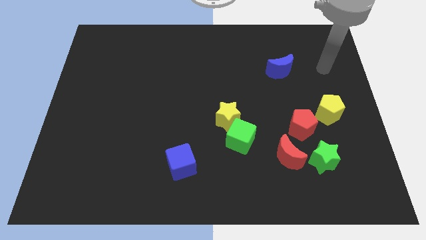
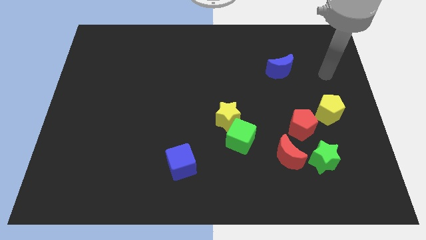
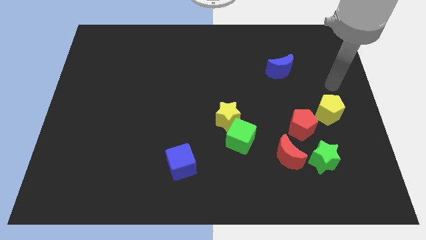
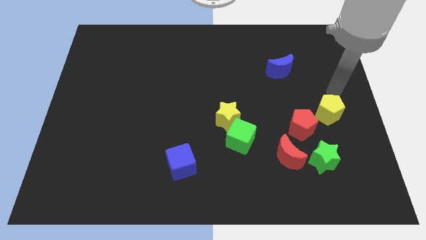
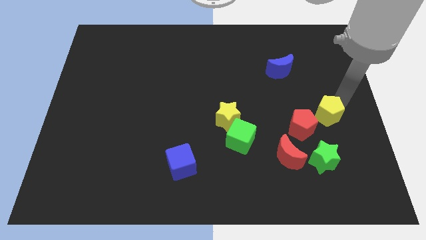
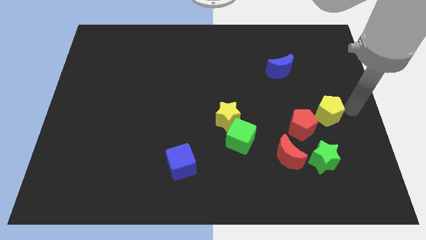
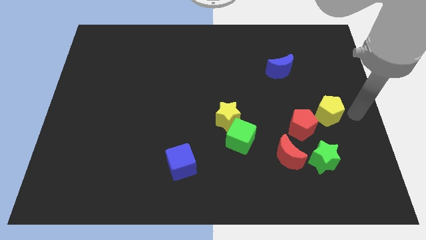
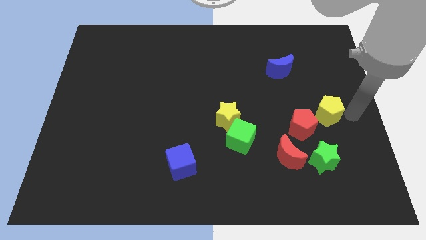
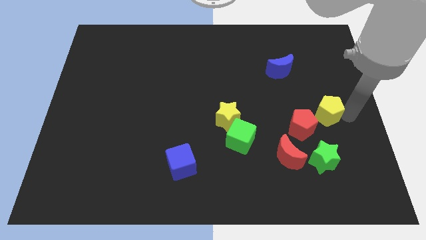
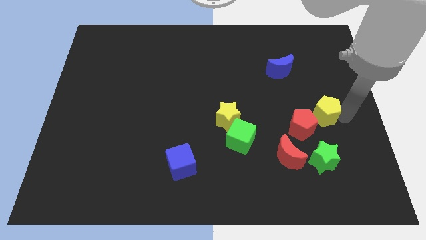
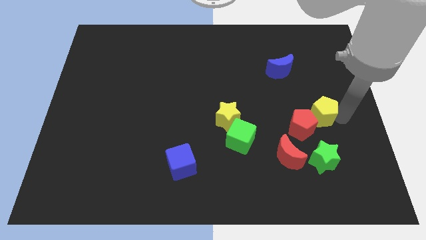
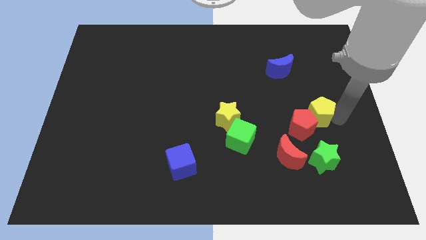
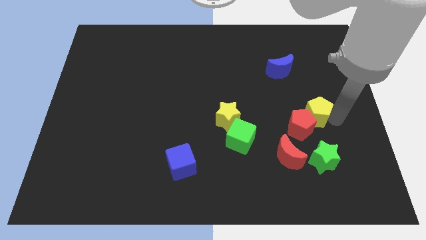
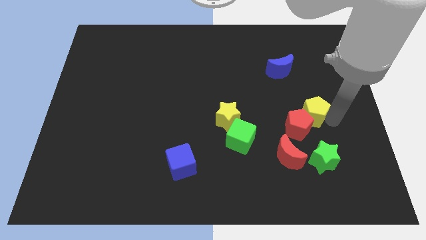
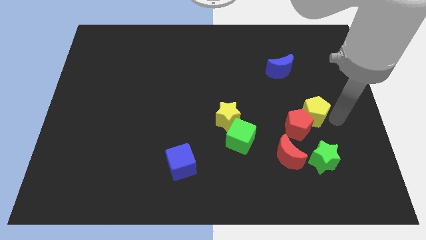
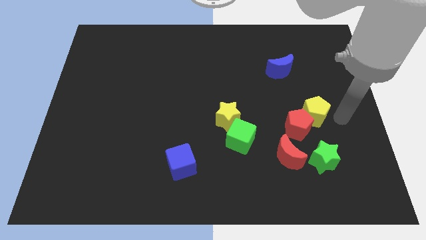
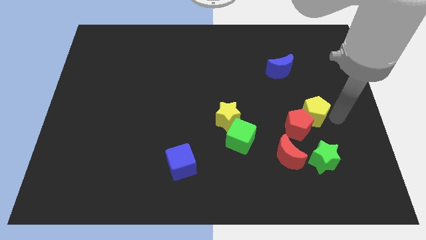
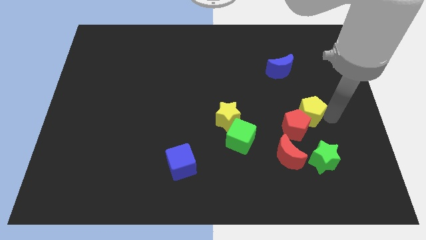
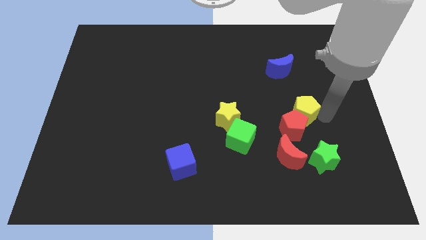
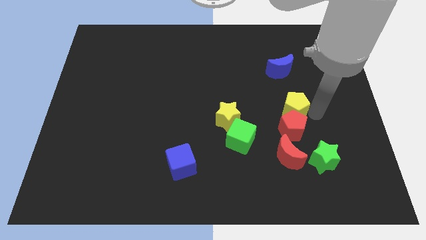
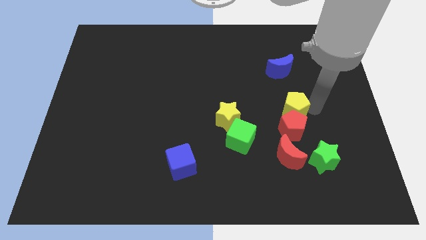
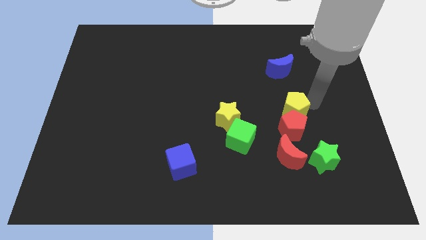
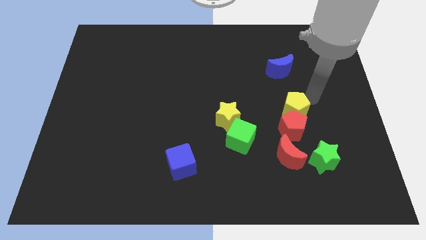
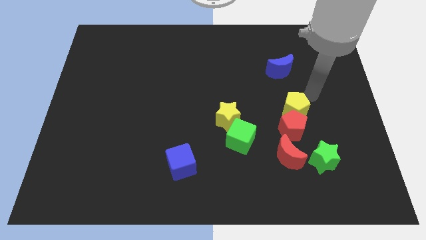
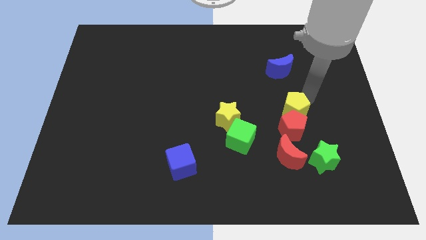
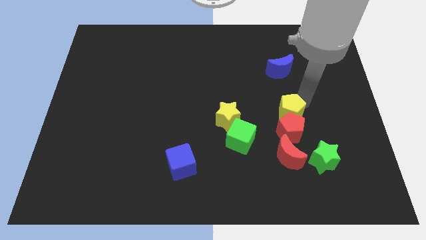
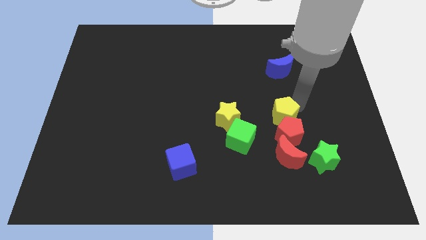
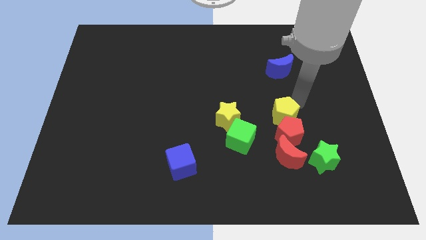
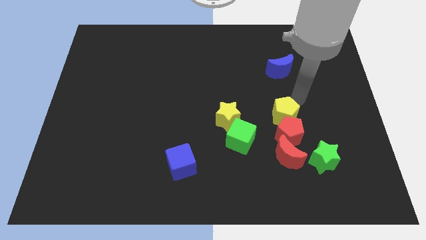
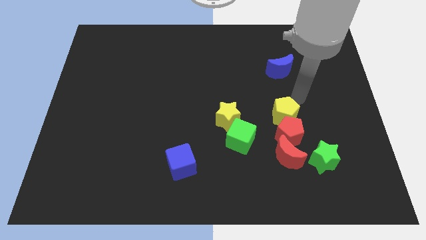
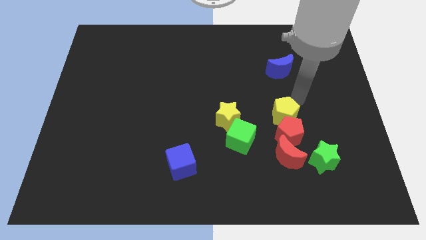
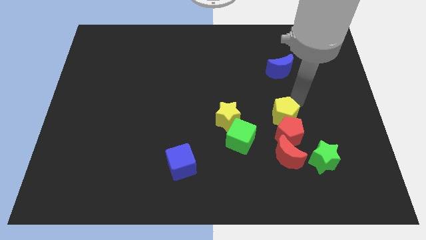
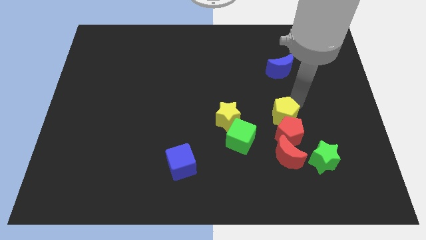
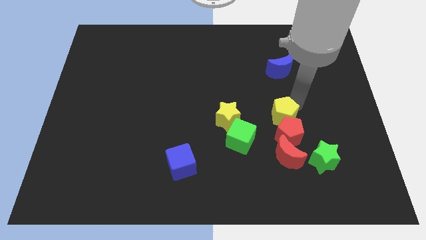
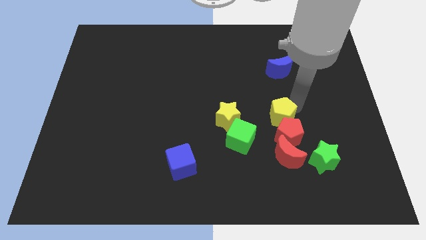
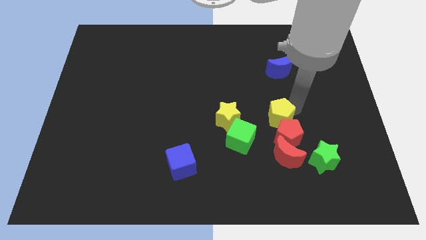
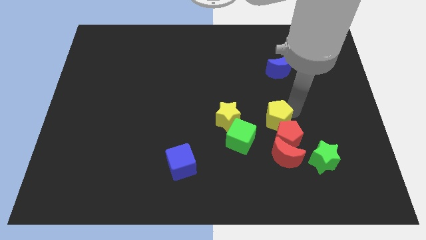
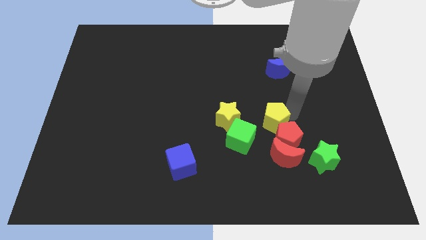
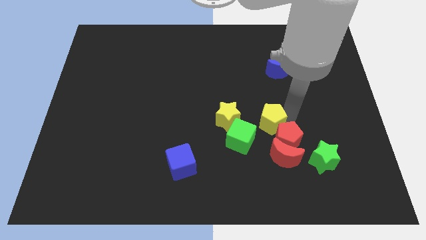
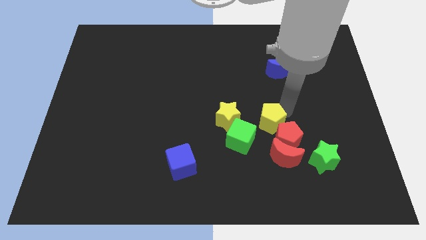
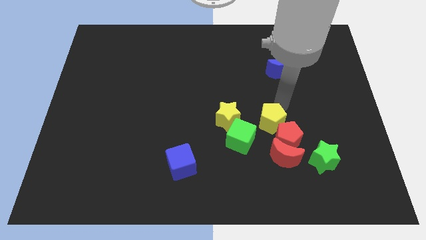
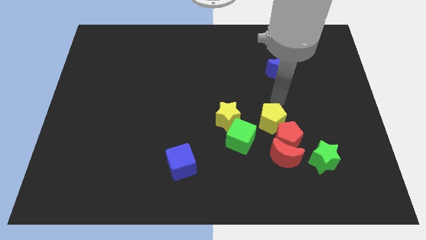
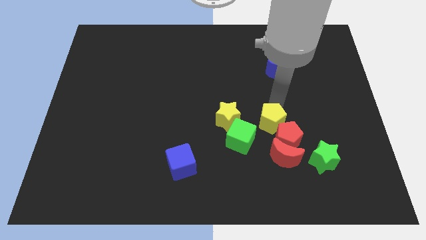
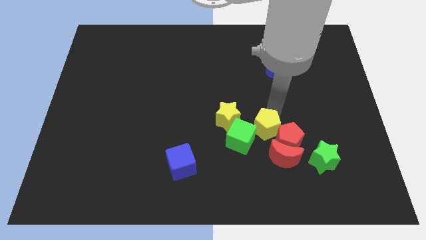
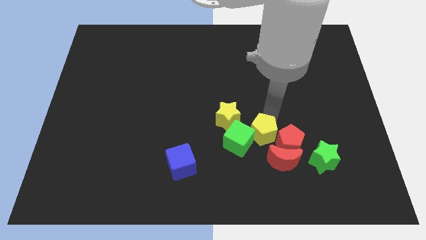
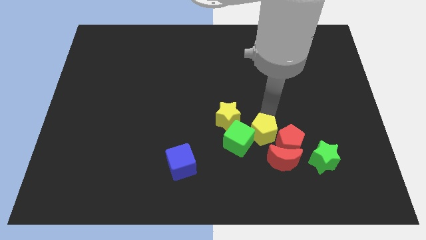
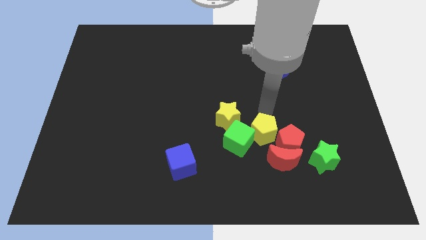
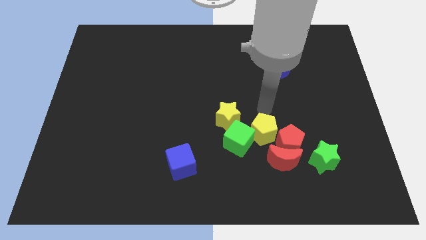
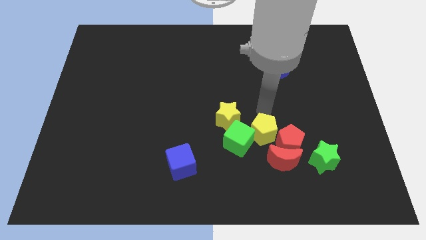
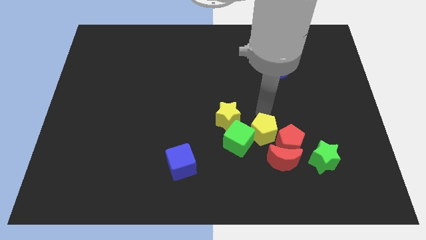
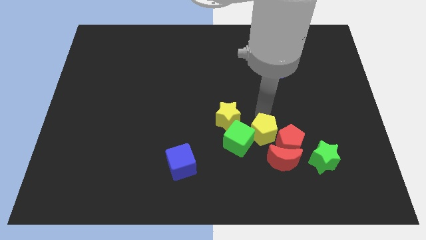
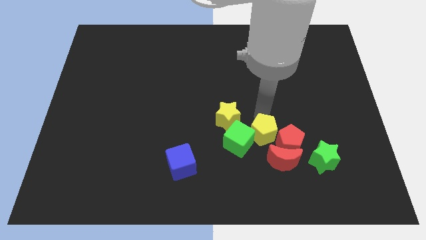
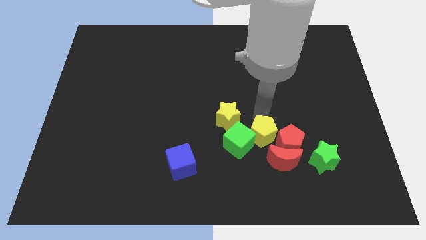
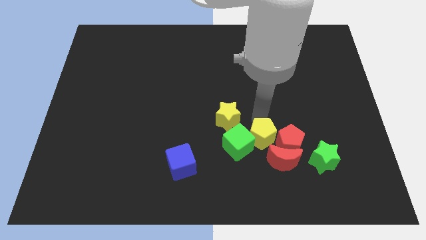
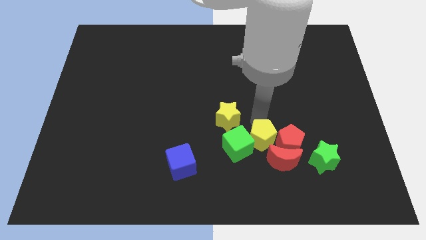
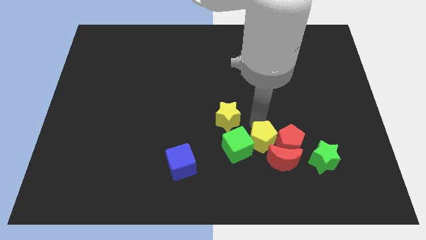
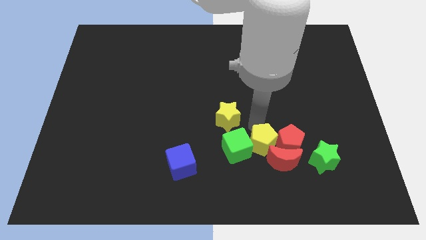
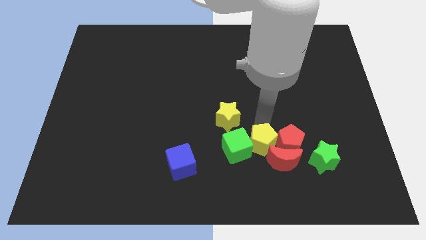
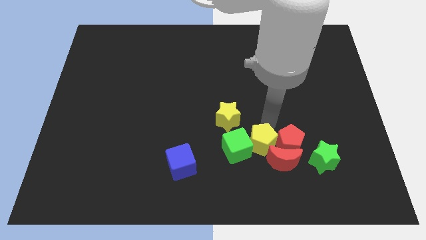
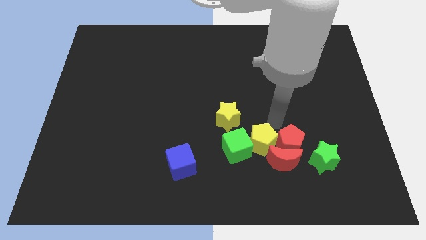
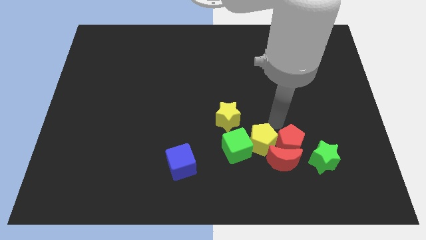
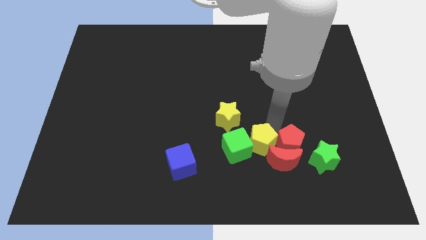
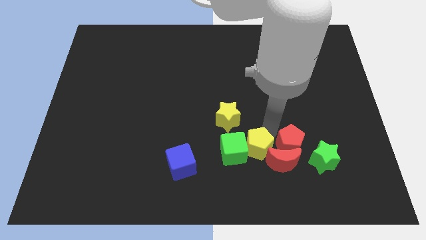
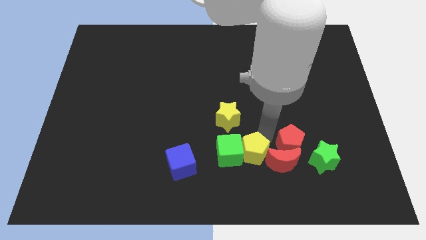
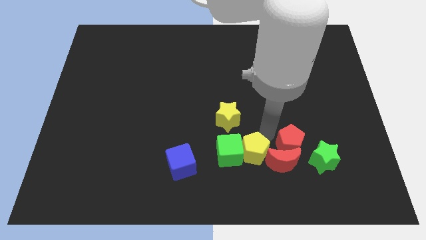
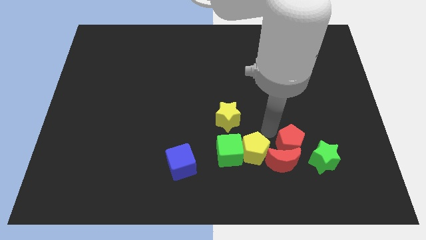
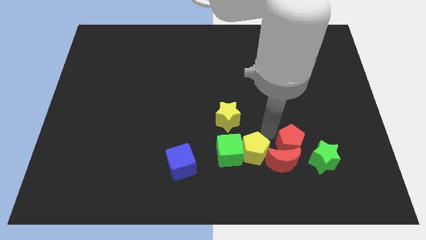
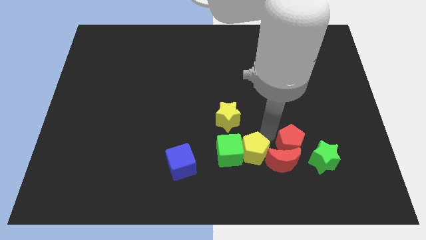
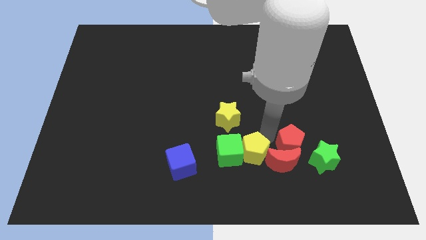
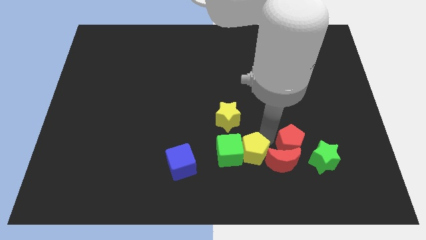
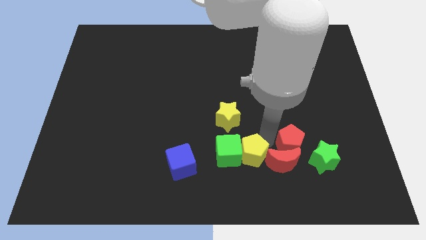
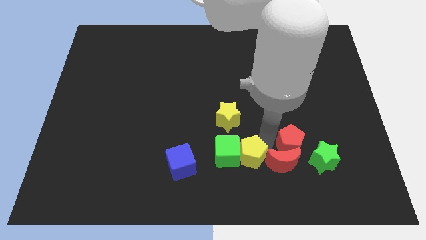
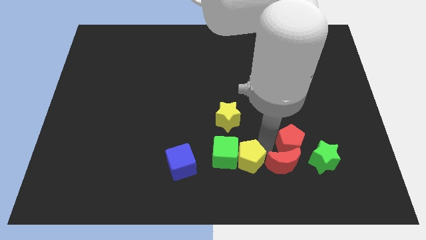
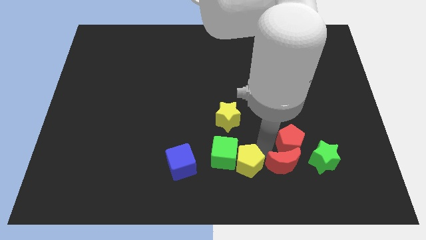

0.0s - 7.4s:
put the yellow pentagon to the bottom side

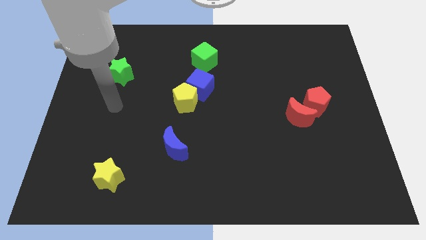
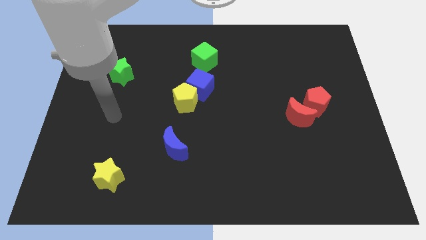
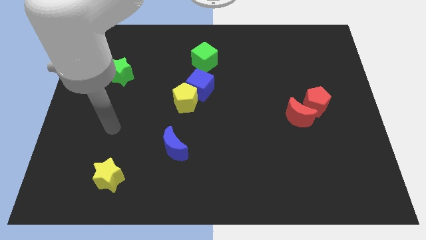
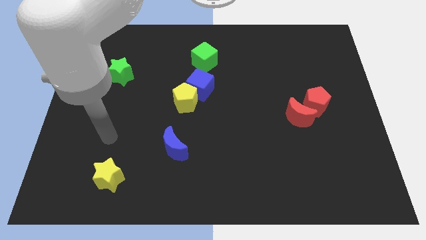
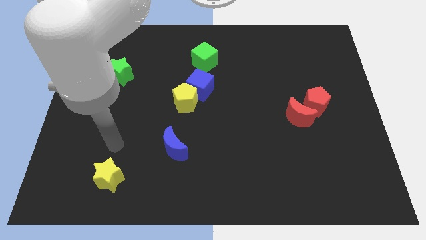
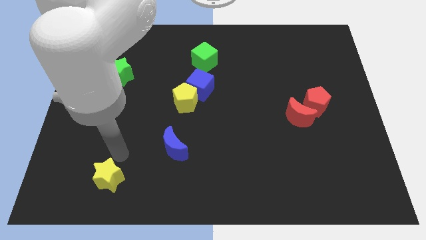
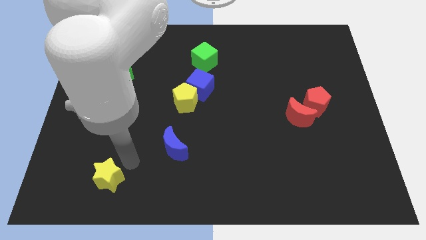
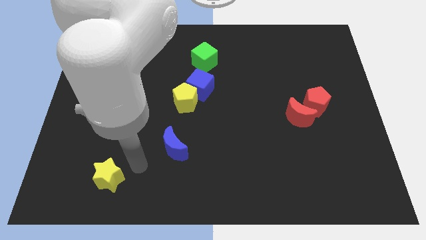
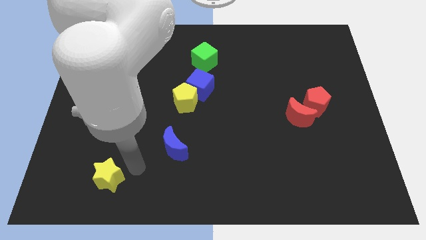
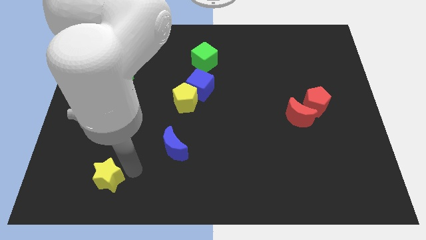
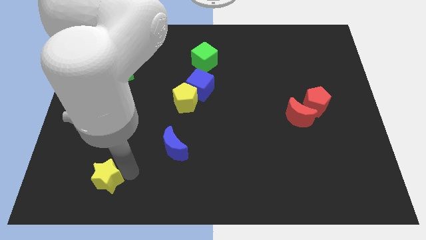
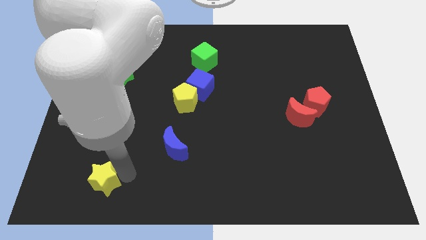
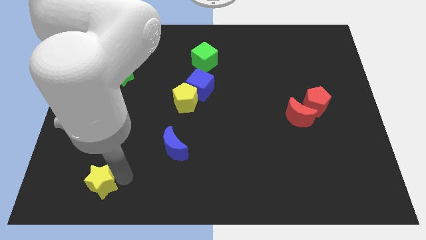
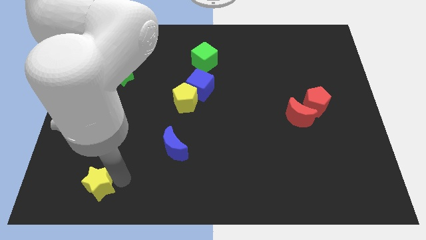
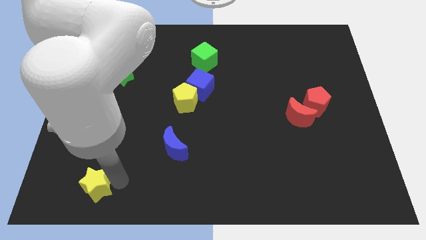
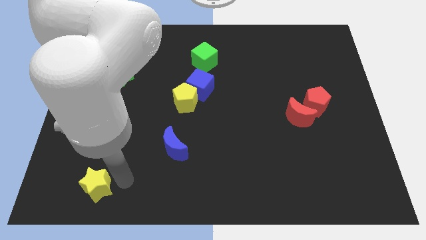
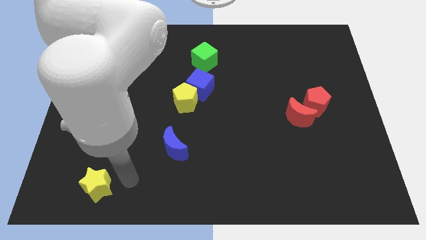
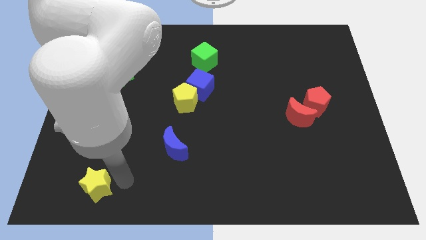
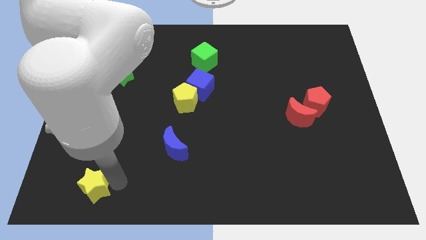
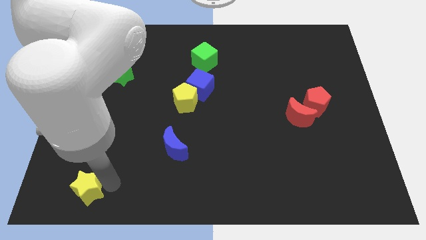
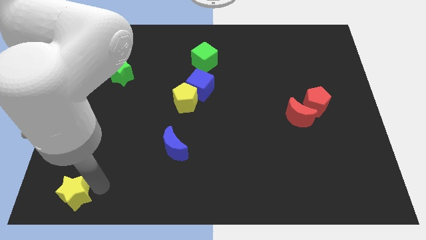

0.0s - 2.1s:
move the yellow star to the bottom left
